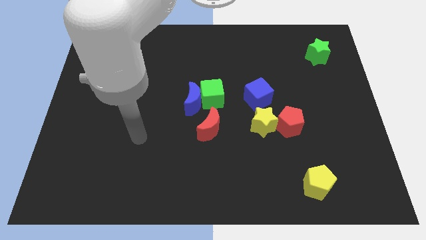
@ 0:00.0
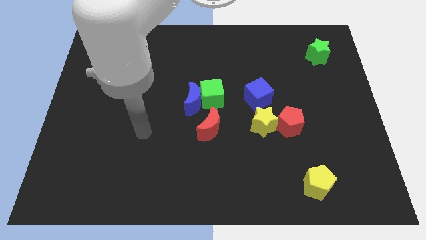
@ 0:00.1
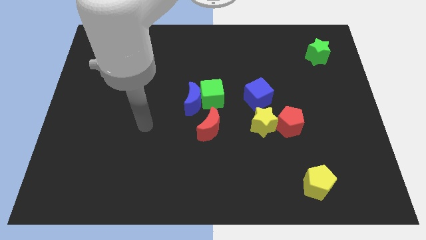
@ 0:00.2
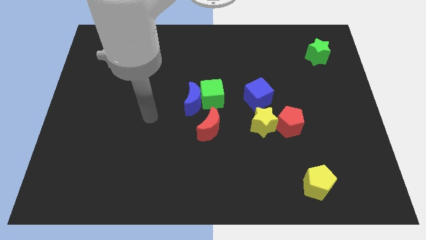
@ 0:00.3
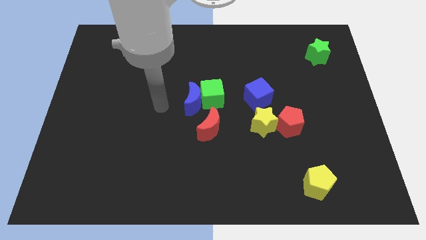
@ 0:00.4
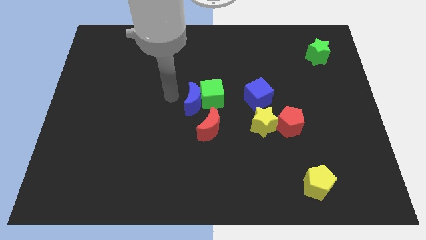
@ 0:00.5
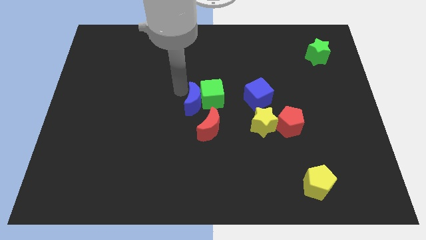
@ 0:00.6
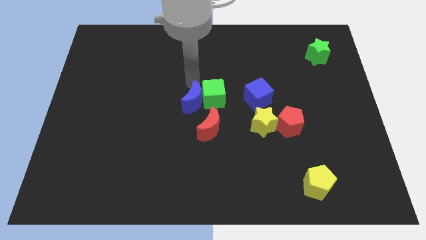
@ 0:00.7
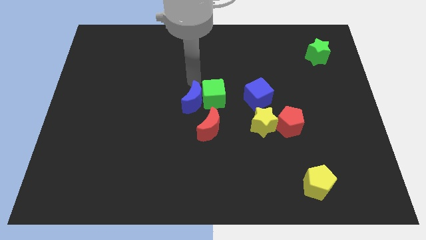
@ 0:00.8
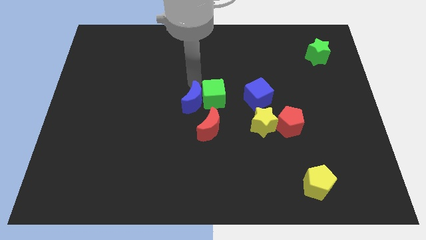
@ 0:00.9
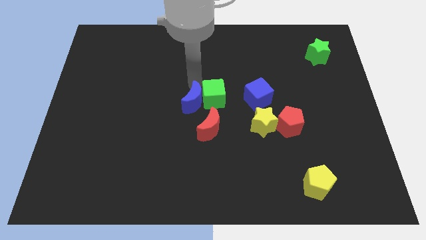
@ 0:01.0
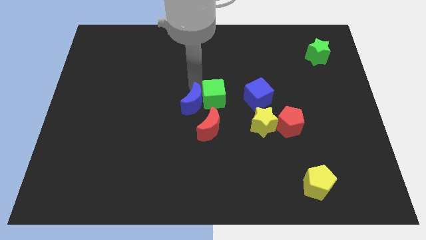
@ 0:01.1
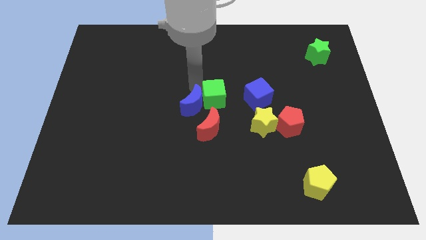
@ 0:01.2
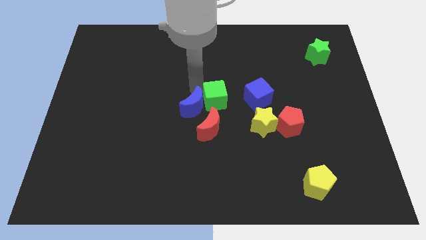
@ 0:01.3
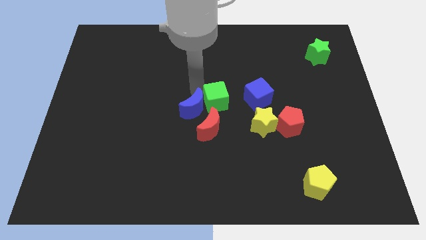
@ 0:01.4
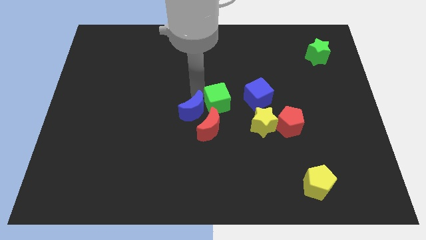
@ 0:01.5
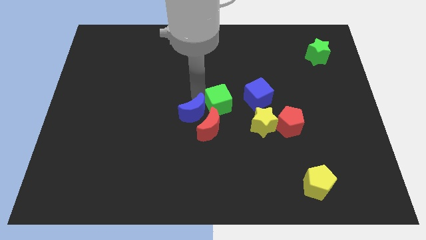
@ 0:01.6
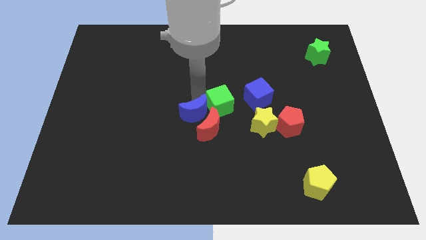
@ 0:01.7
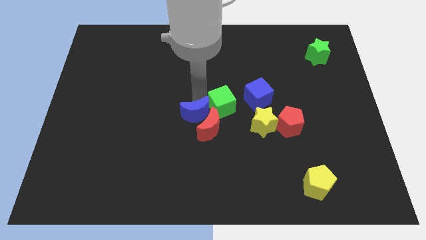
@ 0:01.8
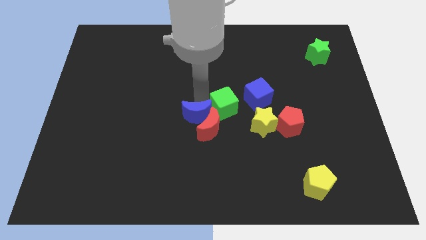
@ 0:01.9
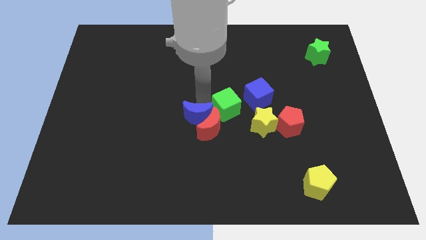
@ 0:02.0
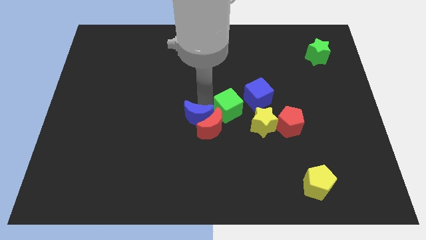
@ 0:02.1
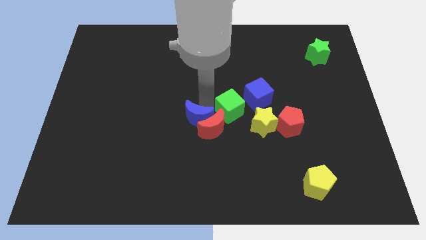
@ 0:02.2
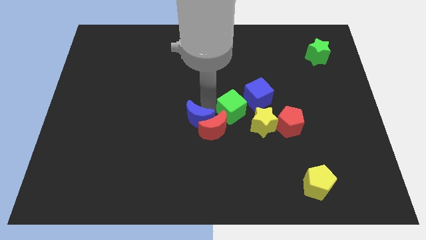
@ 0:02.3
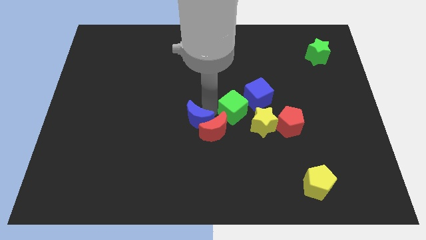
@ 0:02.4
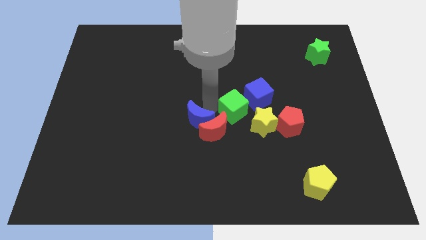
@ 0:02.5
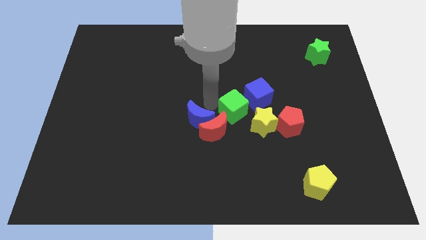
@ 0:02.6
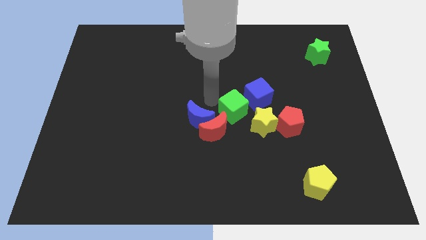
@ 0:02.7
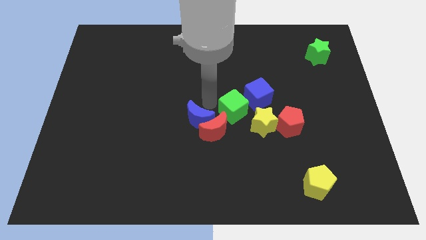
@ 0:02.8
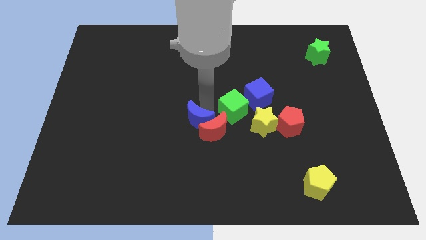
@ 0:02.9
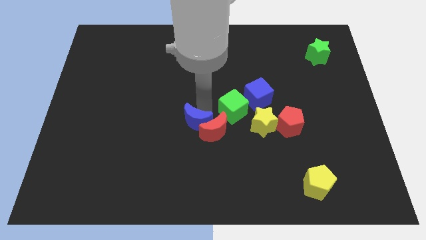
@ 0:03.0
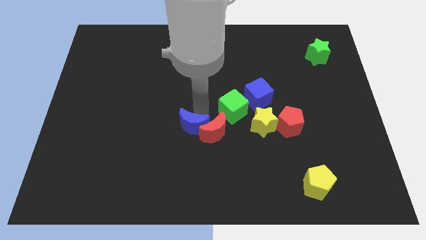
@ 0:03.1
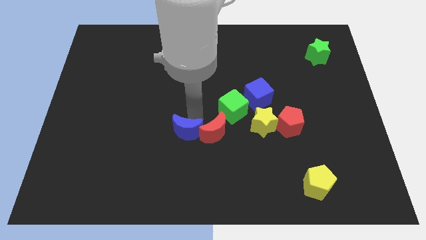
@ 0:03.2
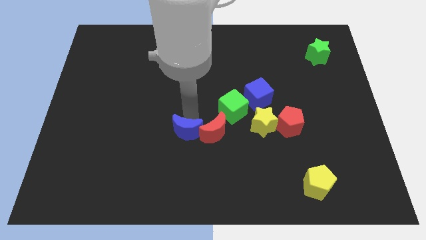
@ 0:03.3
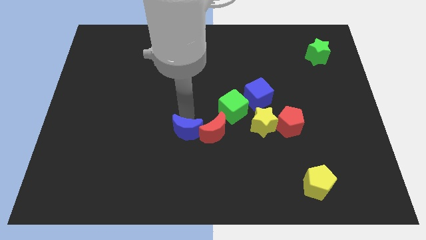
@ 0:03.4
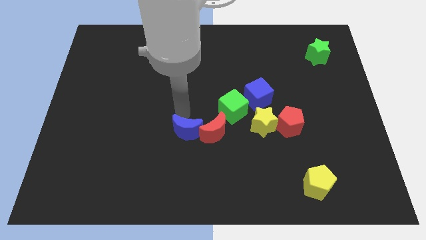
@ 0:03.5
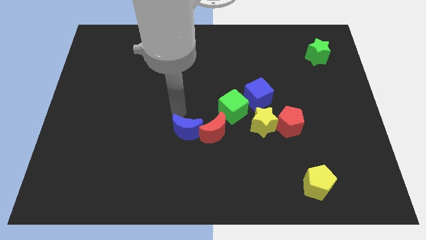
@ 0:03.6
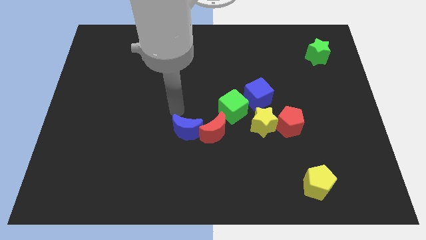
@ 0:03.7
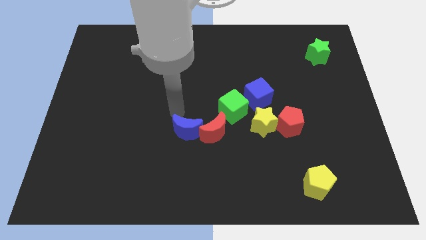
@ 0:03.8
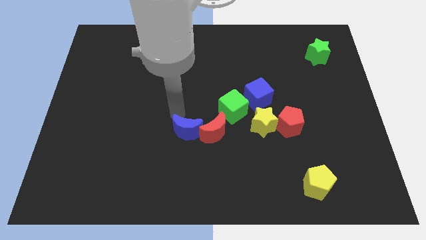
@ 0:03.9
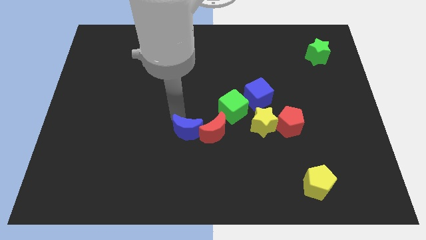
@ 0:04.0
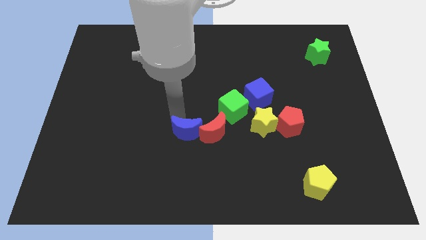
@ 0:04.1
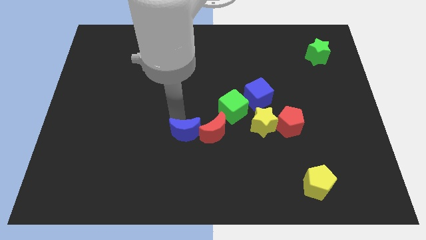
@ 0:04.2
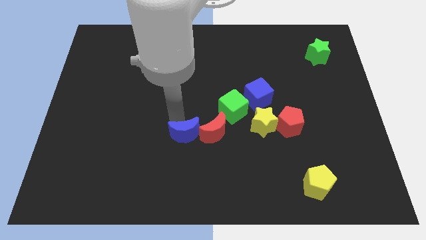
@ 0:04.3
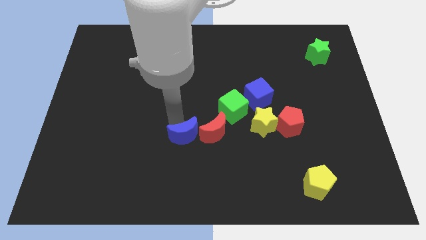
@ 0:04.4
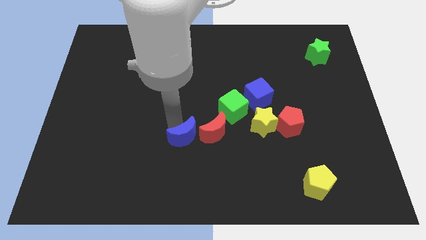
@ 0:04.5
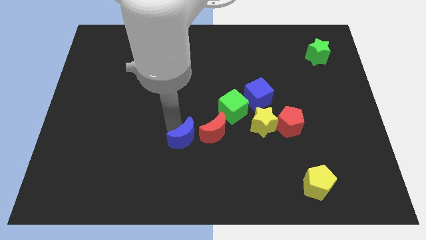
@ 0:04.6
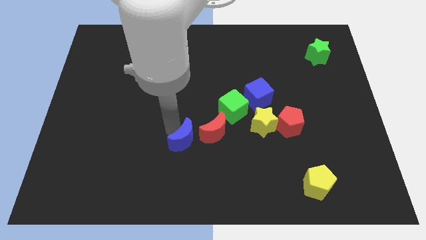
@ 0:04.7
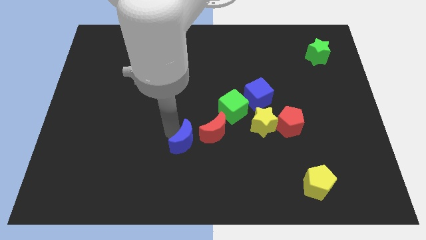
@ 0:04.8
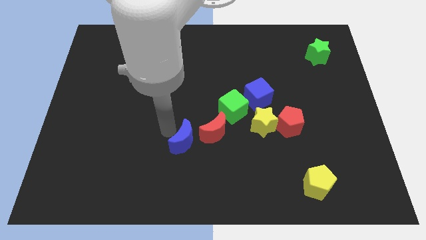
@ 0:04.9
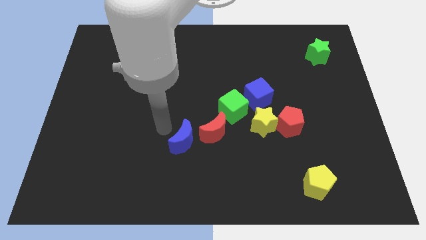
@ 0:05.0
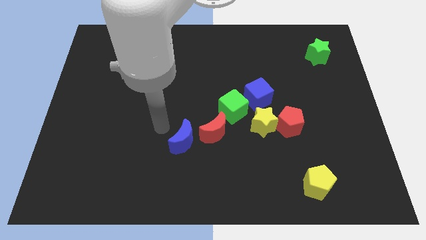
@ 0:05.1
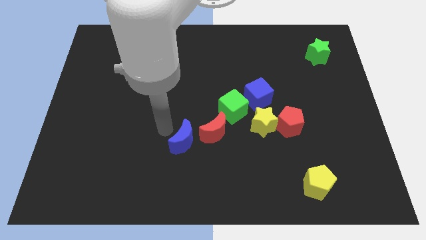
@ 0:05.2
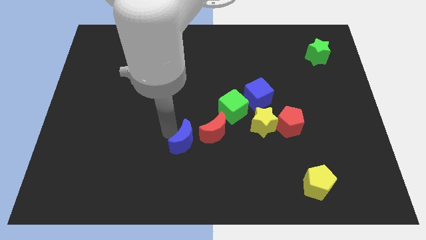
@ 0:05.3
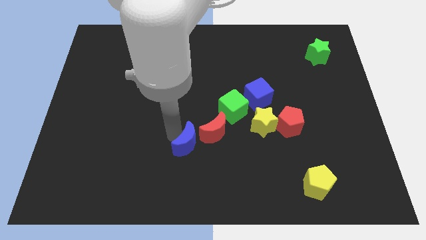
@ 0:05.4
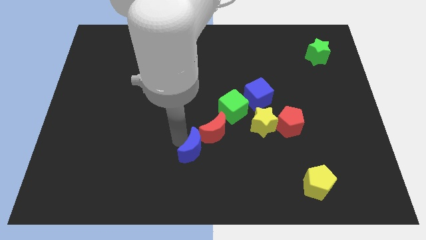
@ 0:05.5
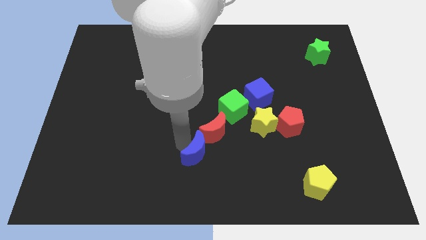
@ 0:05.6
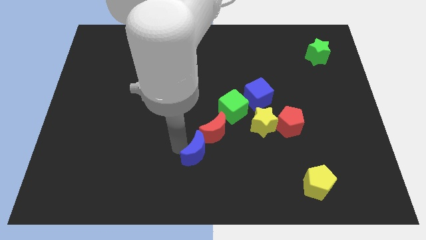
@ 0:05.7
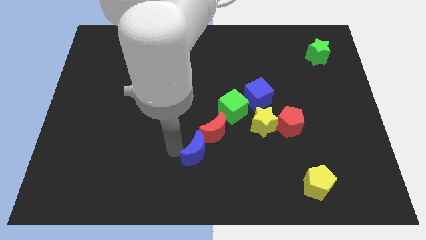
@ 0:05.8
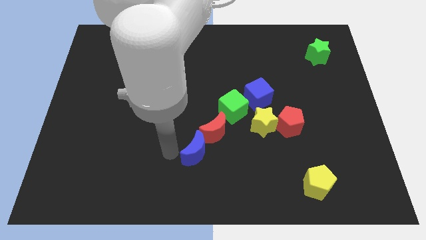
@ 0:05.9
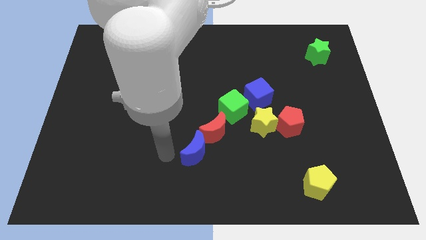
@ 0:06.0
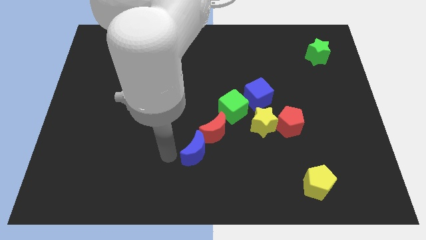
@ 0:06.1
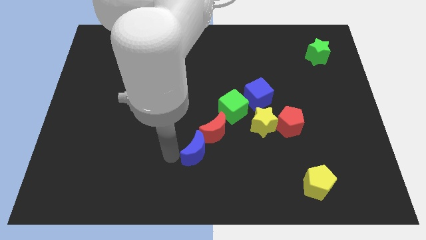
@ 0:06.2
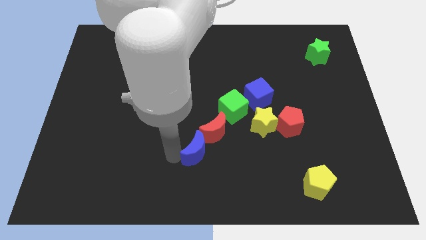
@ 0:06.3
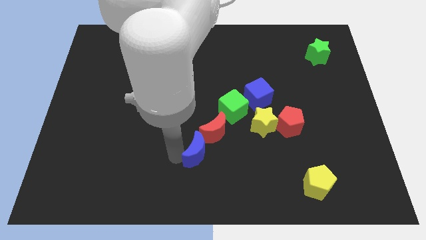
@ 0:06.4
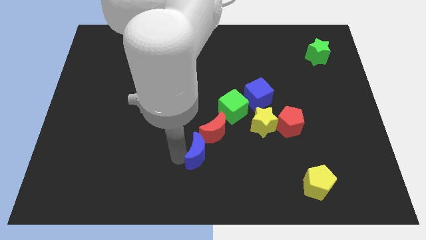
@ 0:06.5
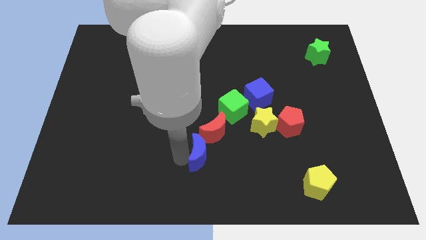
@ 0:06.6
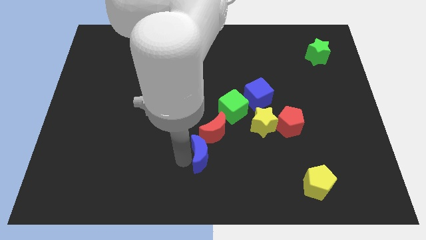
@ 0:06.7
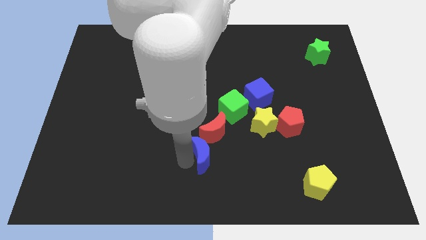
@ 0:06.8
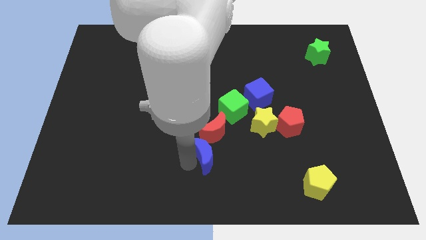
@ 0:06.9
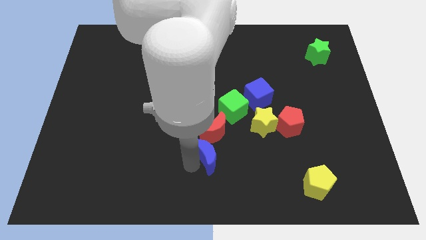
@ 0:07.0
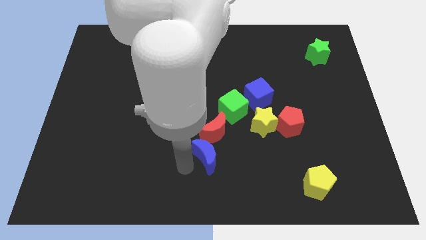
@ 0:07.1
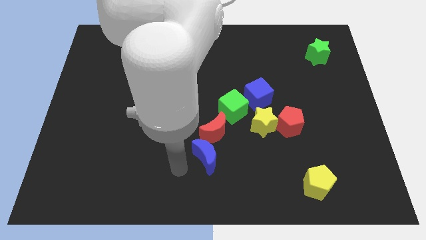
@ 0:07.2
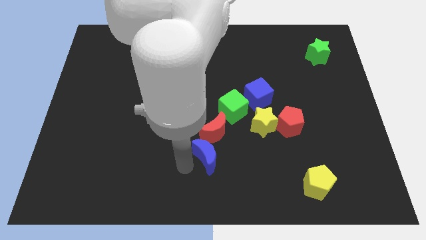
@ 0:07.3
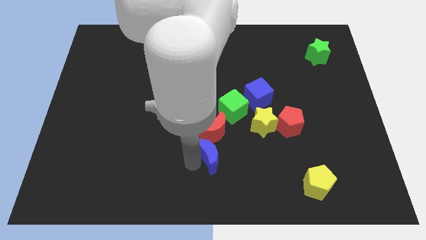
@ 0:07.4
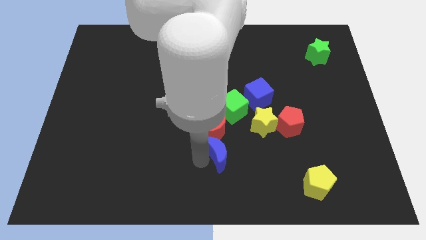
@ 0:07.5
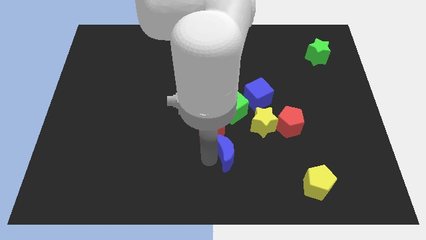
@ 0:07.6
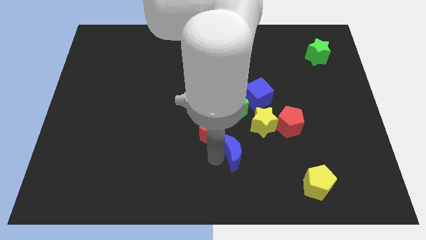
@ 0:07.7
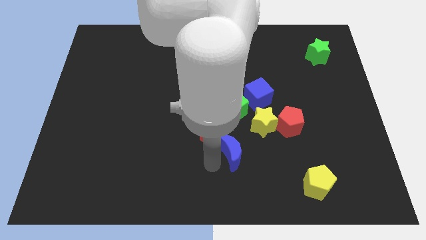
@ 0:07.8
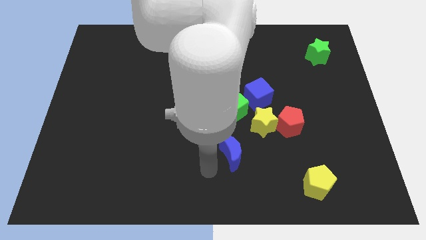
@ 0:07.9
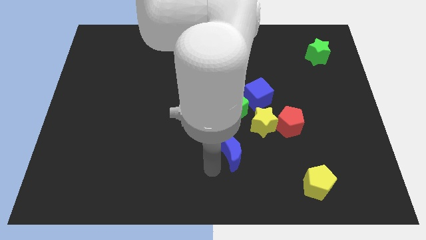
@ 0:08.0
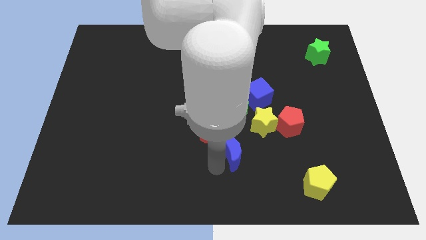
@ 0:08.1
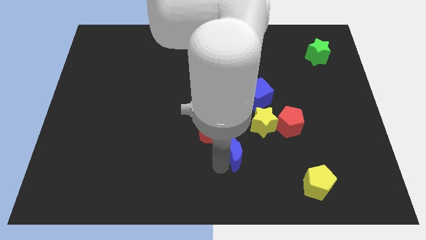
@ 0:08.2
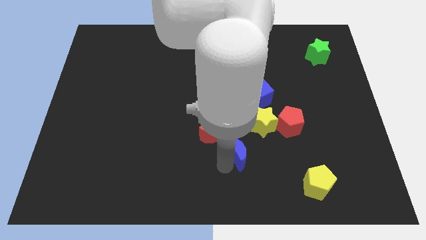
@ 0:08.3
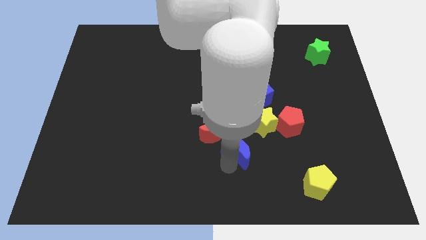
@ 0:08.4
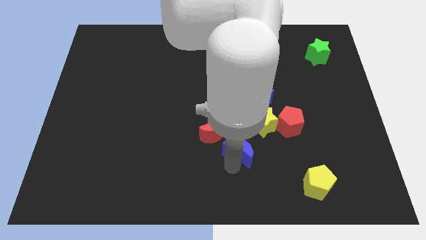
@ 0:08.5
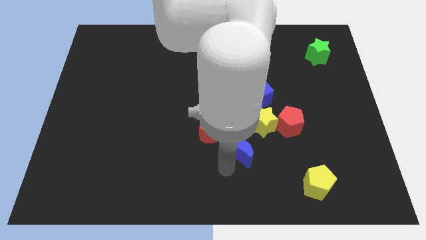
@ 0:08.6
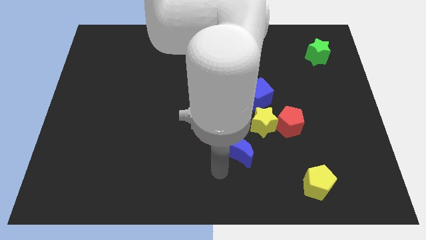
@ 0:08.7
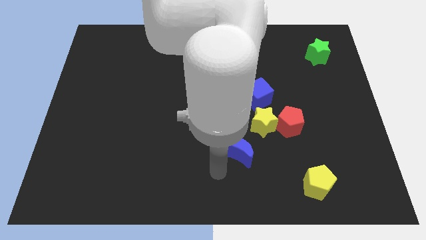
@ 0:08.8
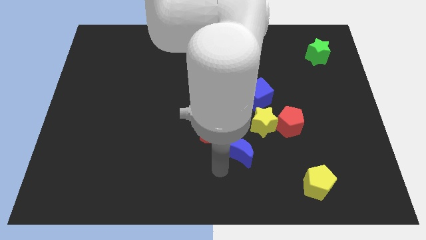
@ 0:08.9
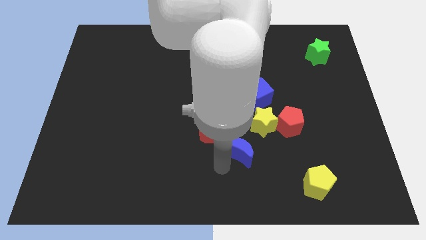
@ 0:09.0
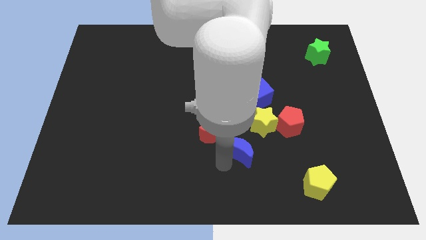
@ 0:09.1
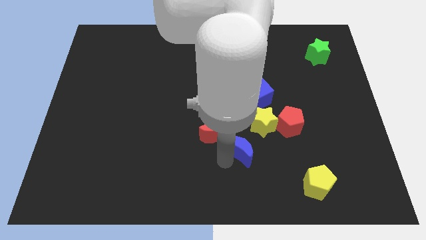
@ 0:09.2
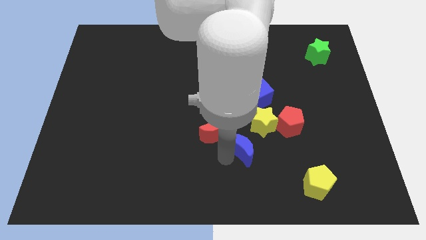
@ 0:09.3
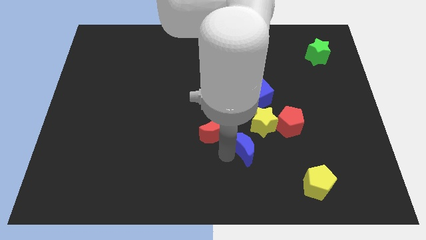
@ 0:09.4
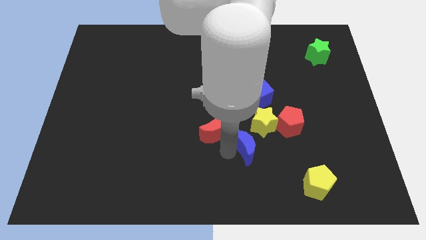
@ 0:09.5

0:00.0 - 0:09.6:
push the blue moon to the bottom side of the blue cube
